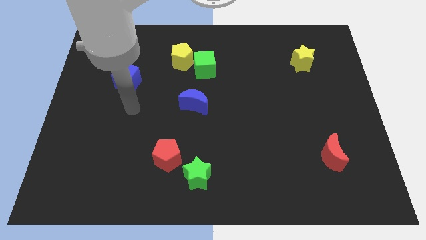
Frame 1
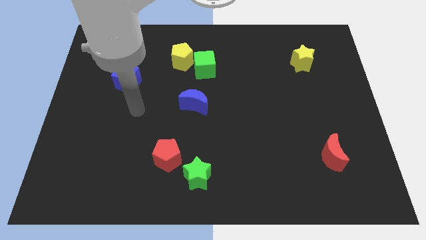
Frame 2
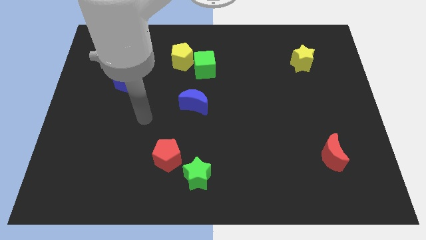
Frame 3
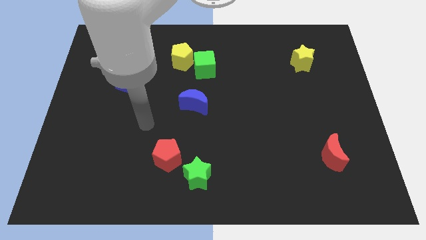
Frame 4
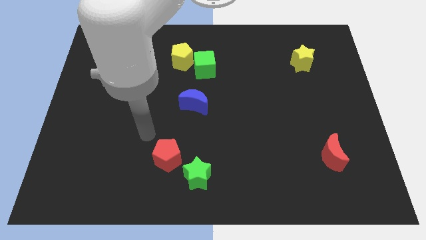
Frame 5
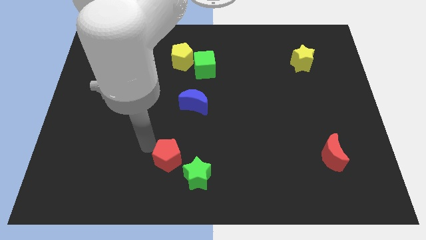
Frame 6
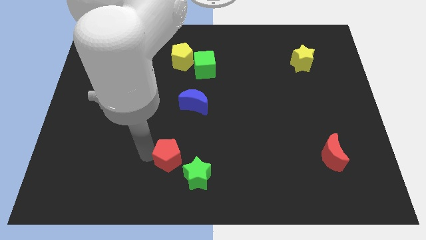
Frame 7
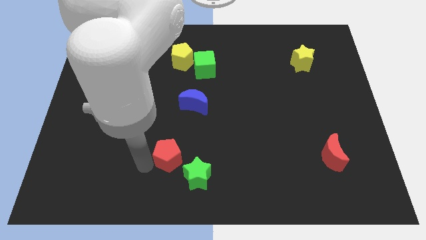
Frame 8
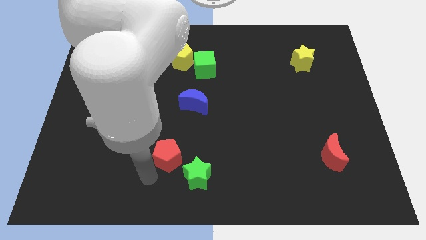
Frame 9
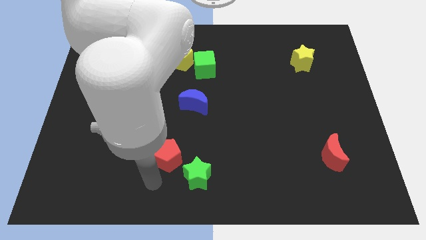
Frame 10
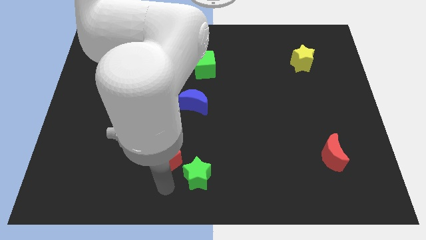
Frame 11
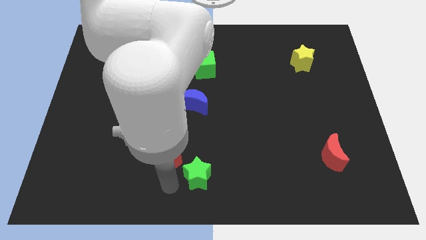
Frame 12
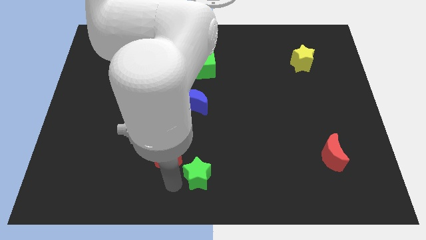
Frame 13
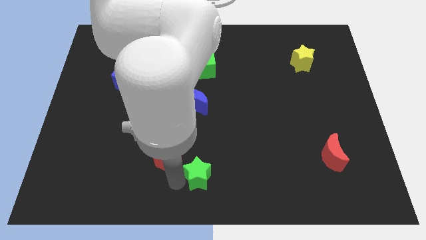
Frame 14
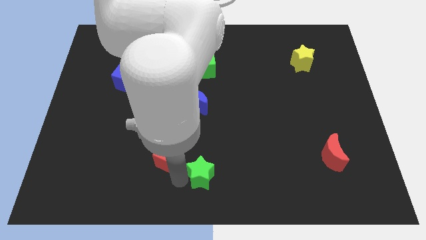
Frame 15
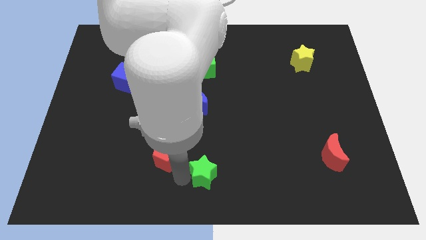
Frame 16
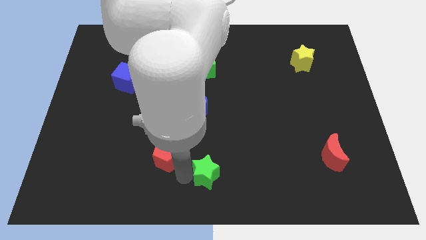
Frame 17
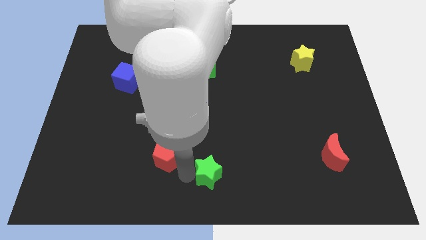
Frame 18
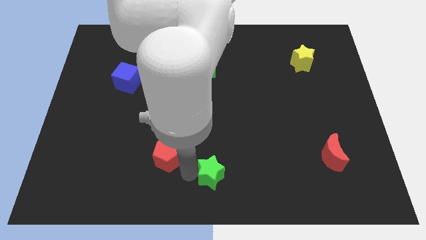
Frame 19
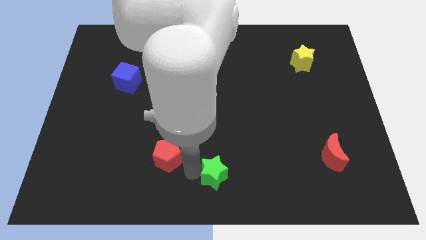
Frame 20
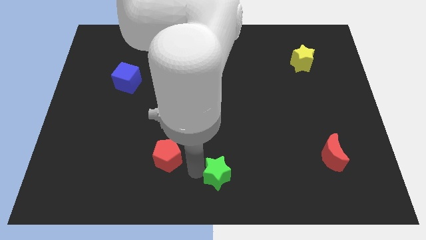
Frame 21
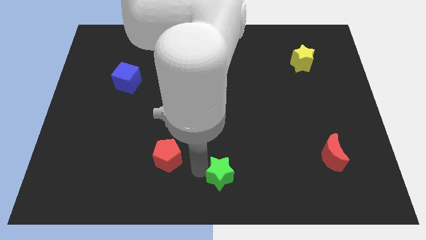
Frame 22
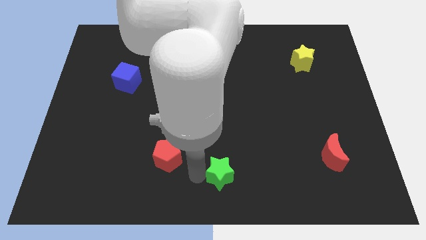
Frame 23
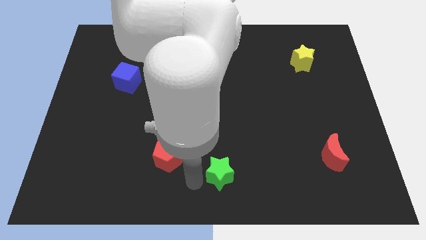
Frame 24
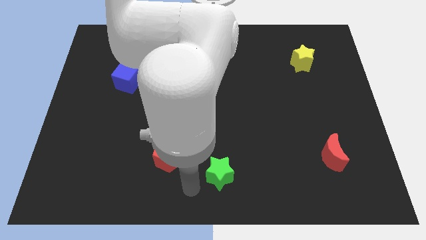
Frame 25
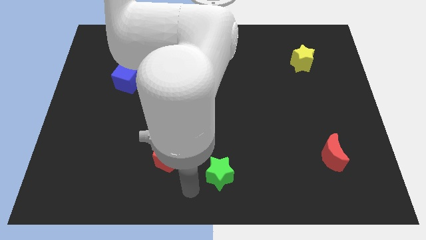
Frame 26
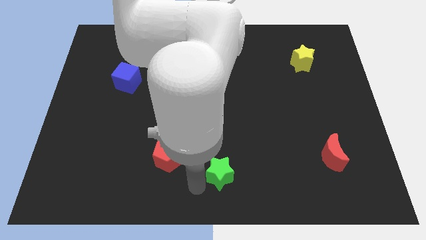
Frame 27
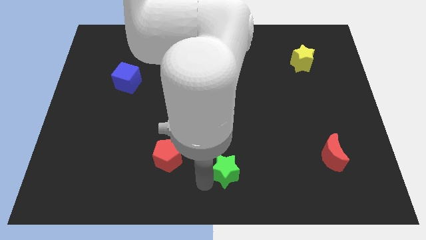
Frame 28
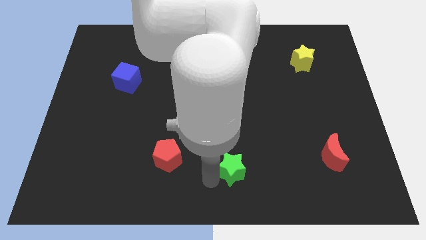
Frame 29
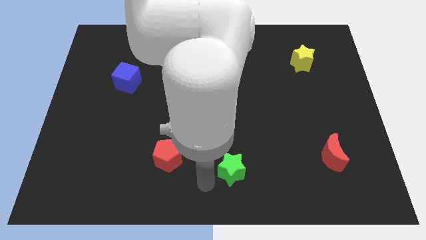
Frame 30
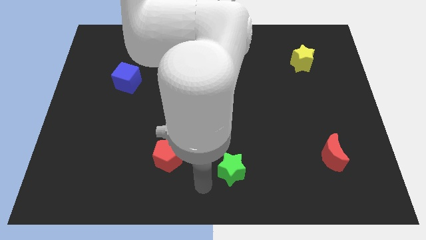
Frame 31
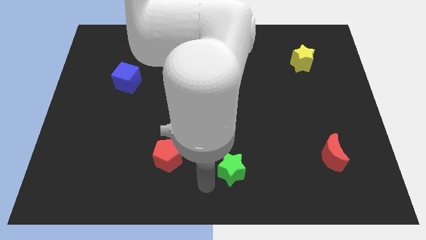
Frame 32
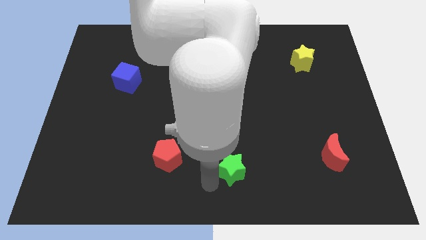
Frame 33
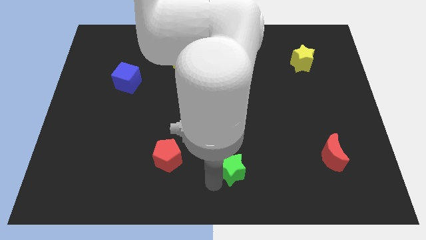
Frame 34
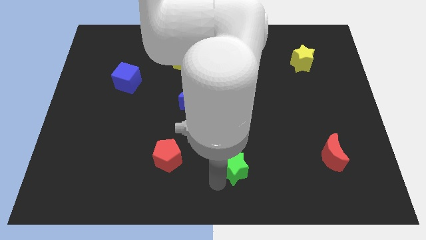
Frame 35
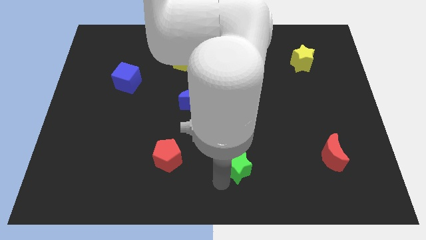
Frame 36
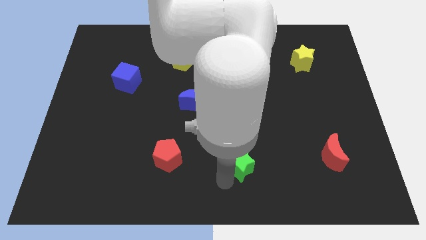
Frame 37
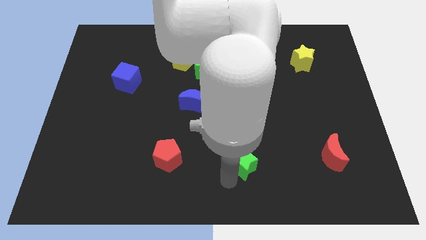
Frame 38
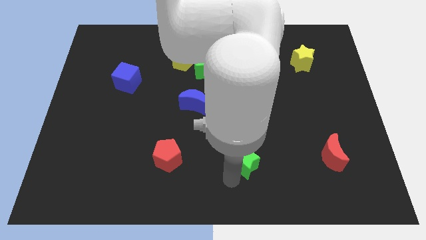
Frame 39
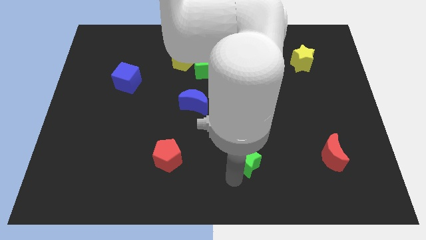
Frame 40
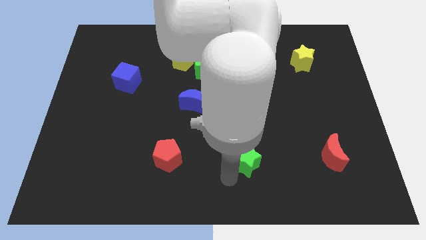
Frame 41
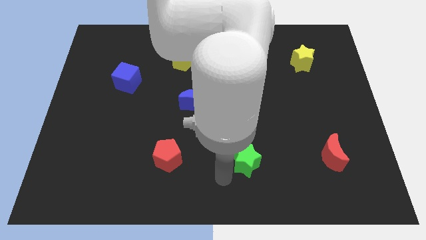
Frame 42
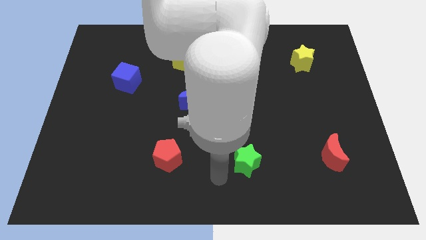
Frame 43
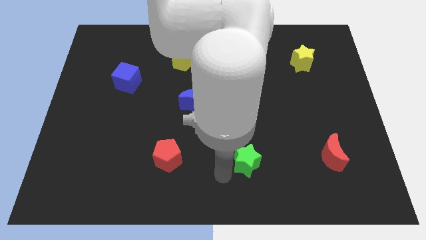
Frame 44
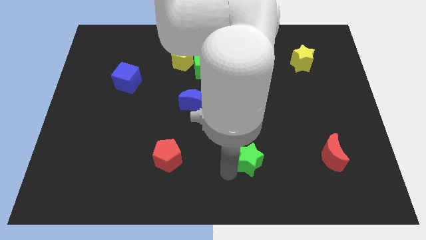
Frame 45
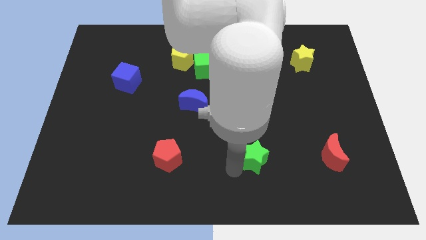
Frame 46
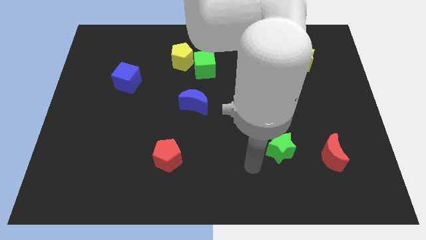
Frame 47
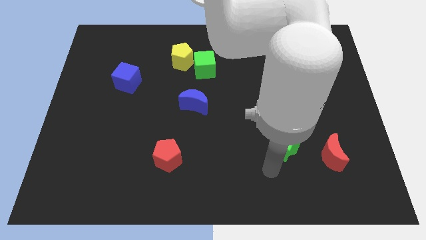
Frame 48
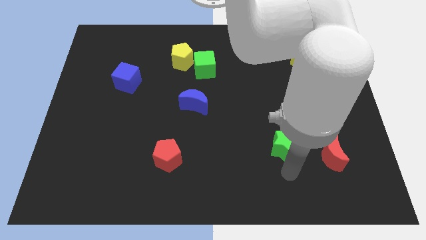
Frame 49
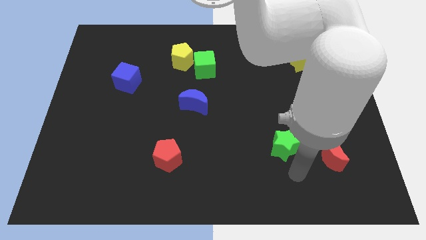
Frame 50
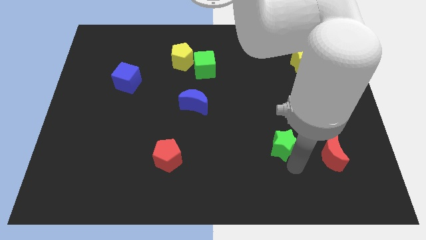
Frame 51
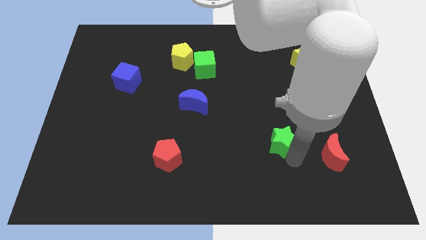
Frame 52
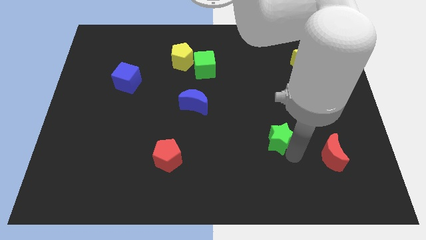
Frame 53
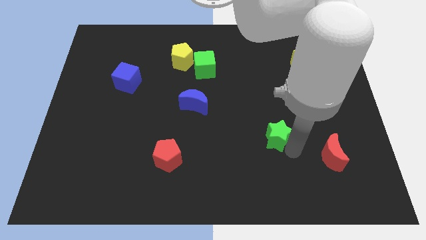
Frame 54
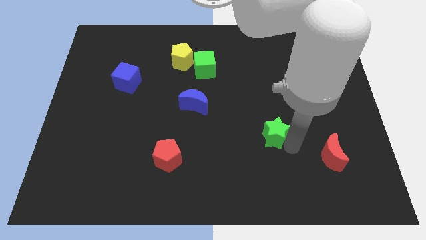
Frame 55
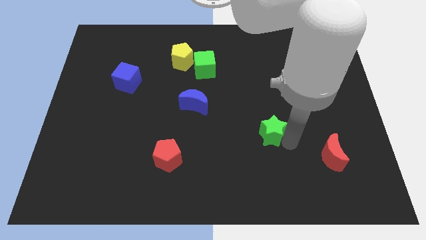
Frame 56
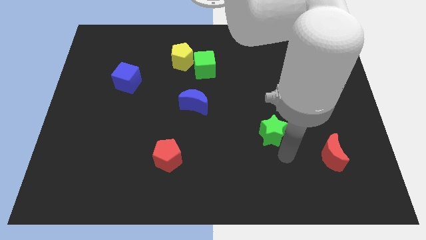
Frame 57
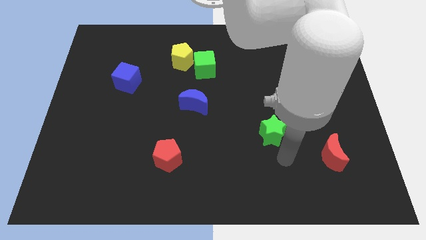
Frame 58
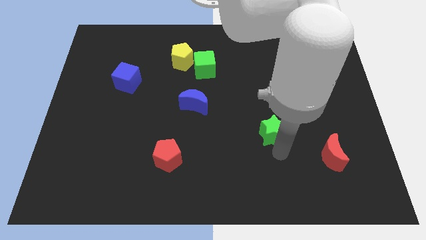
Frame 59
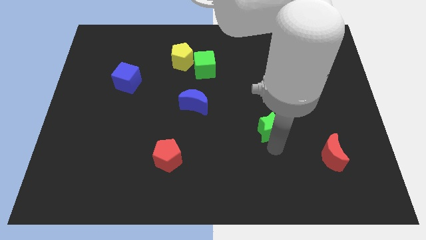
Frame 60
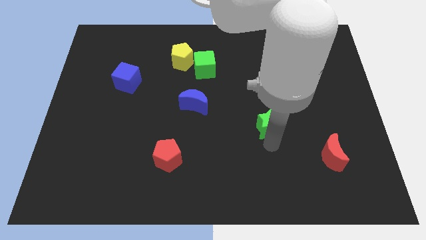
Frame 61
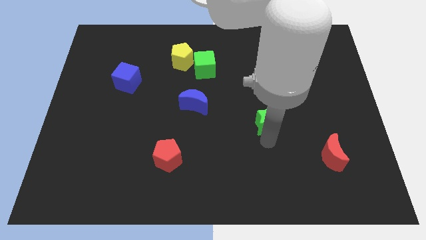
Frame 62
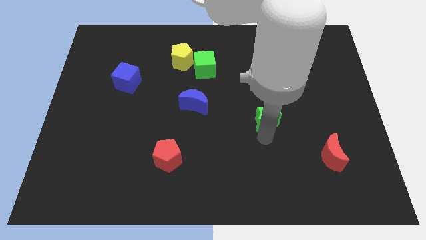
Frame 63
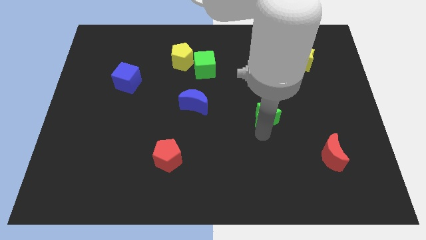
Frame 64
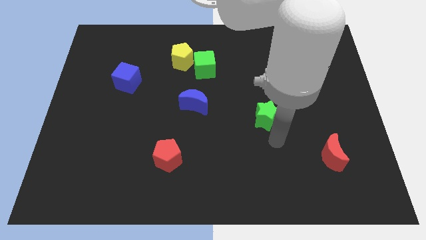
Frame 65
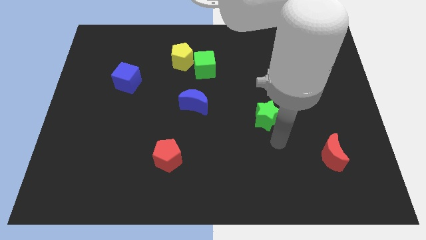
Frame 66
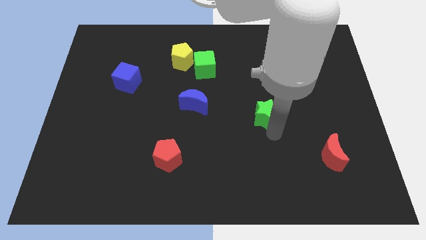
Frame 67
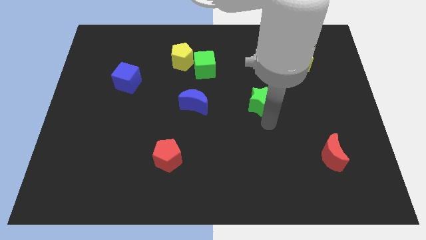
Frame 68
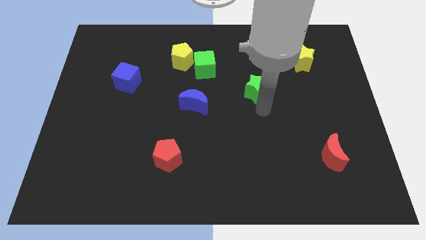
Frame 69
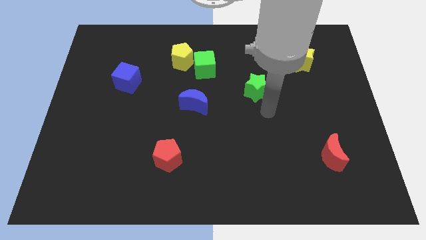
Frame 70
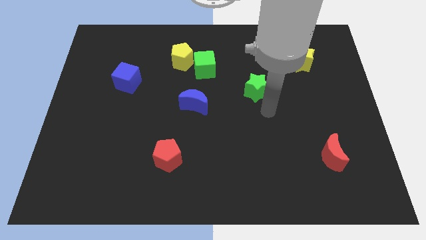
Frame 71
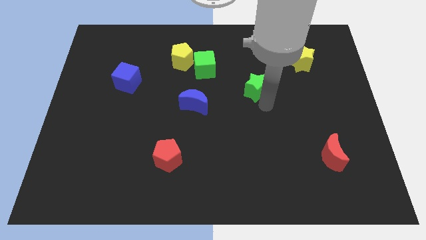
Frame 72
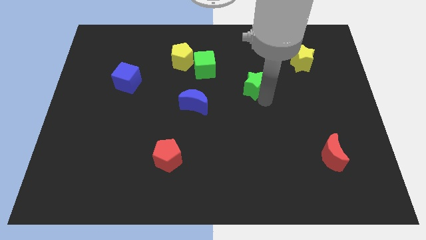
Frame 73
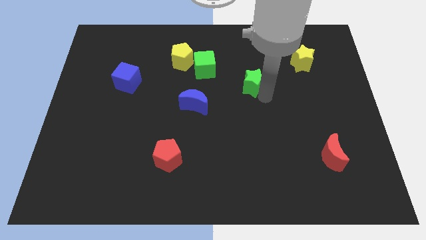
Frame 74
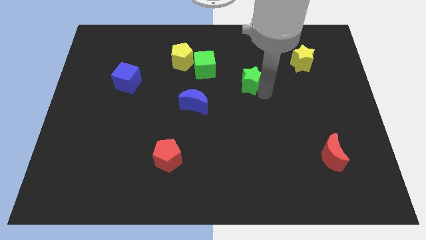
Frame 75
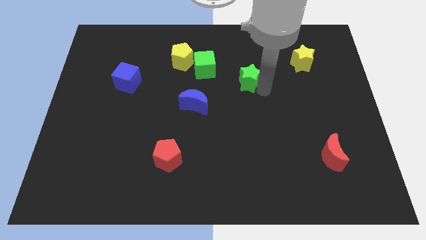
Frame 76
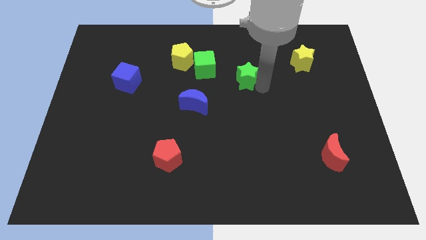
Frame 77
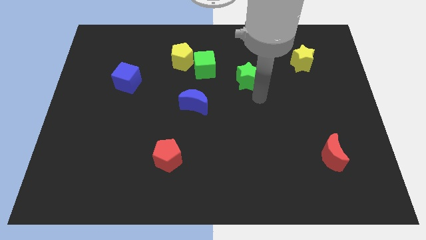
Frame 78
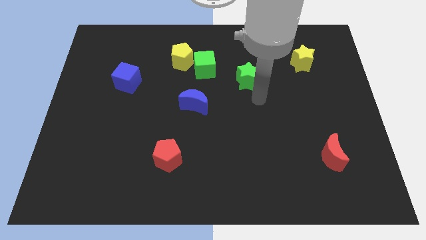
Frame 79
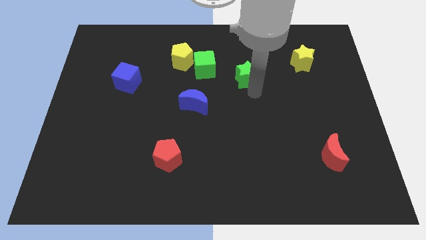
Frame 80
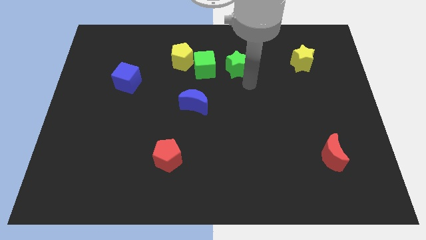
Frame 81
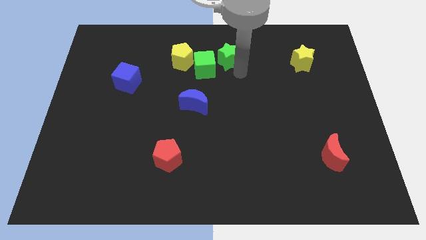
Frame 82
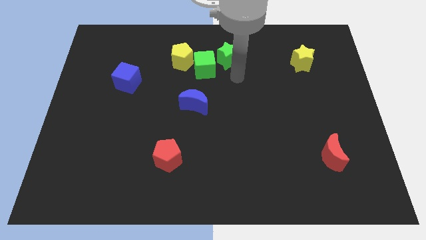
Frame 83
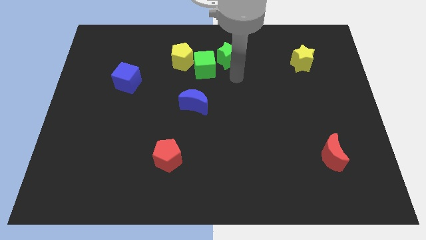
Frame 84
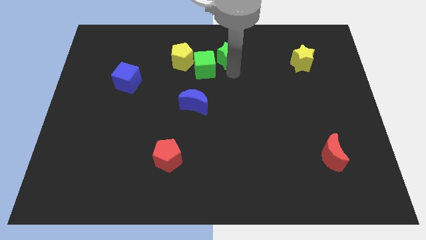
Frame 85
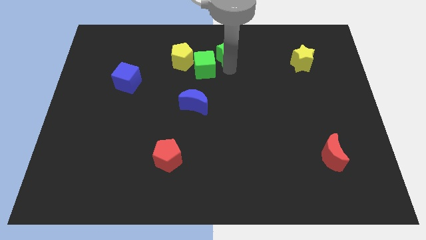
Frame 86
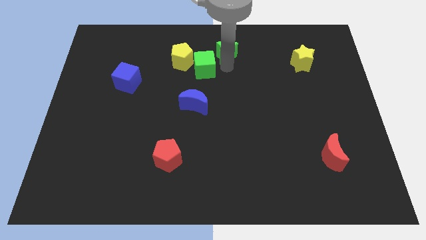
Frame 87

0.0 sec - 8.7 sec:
put the green star to the top side
